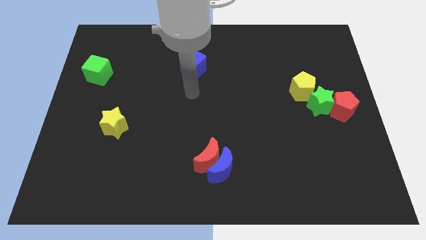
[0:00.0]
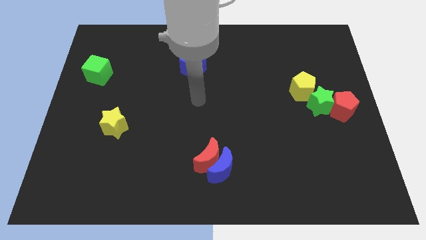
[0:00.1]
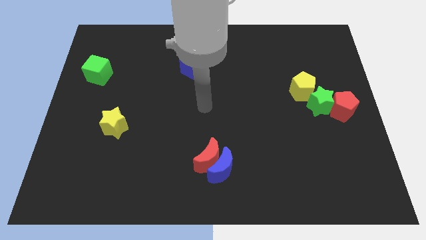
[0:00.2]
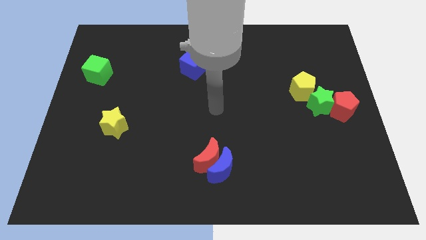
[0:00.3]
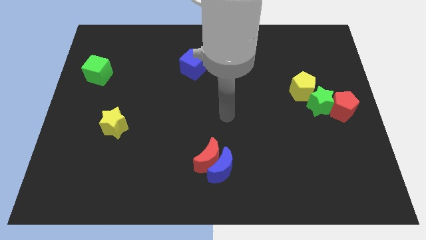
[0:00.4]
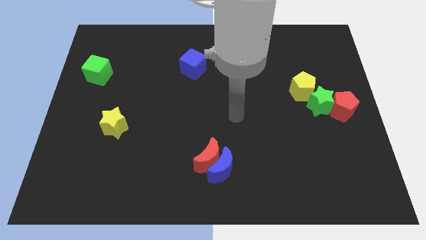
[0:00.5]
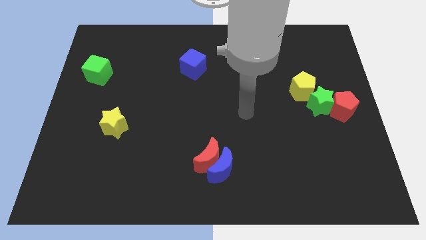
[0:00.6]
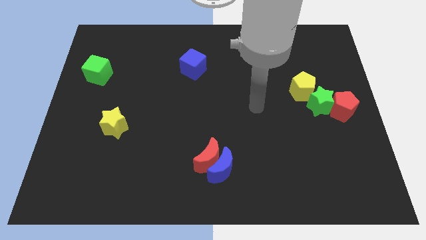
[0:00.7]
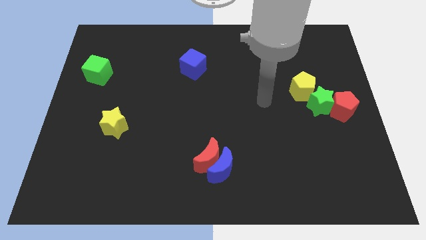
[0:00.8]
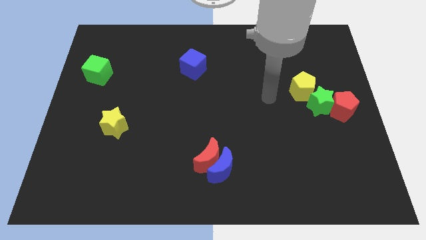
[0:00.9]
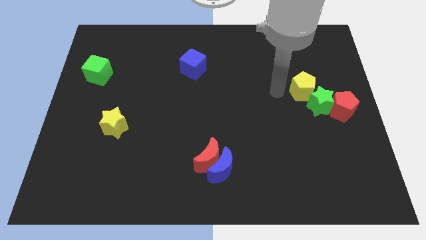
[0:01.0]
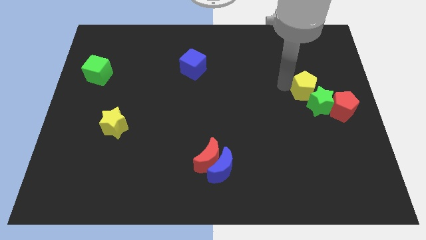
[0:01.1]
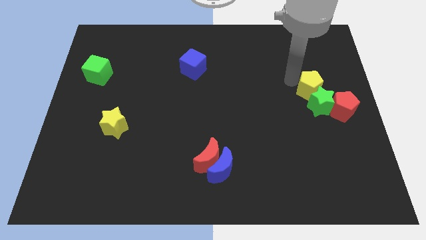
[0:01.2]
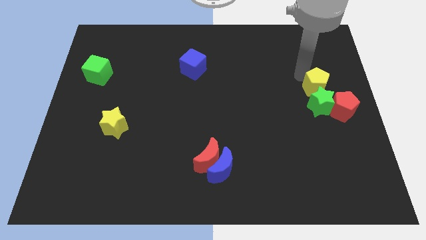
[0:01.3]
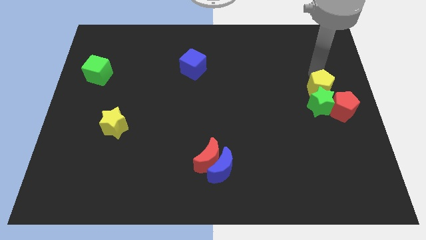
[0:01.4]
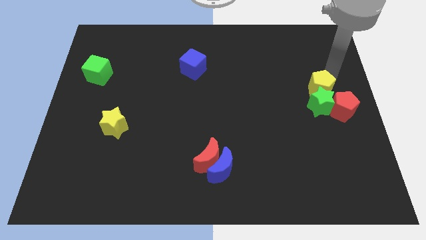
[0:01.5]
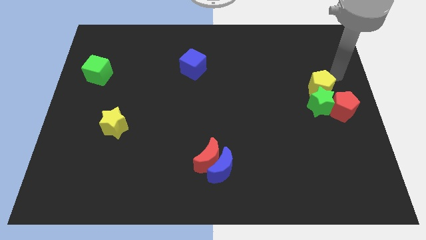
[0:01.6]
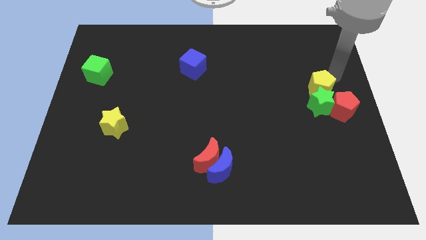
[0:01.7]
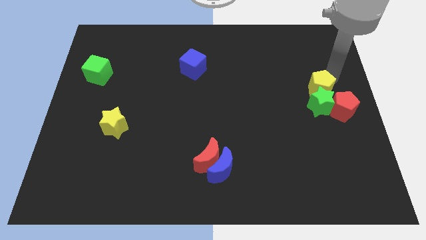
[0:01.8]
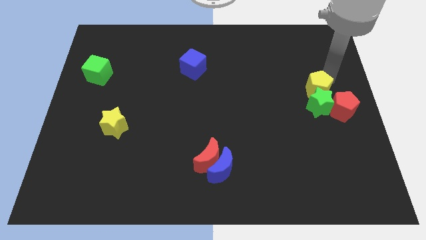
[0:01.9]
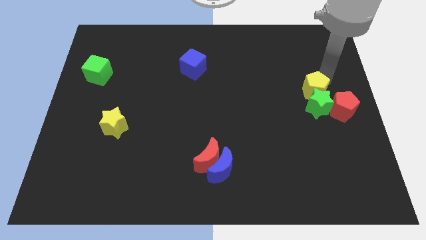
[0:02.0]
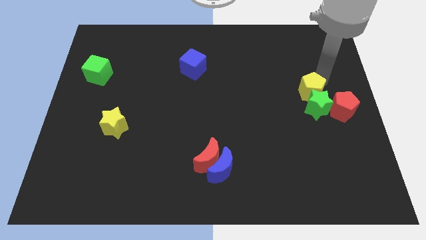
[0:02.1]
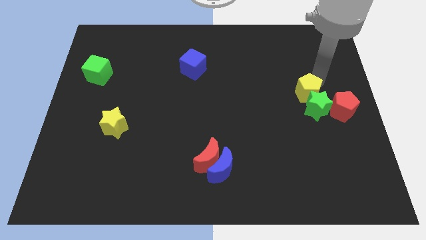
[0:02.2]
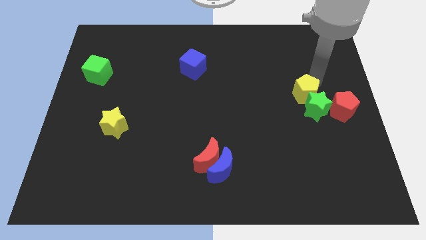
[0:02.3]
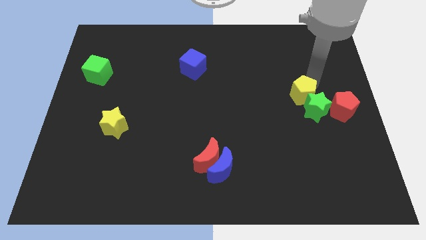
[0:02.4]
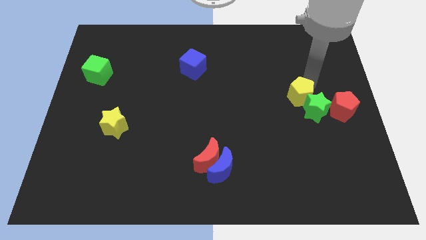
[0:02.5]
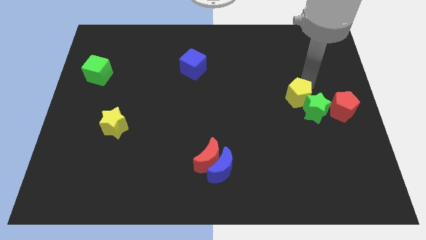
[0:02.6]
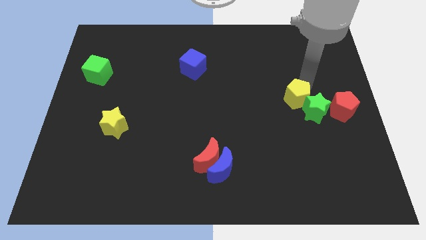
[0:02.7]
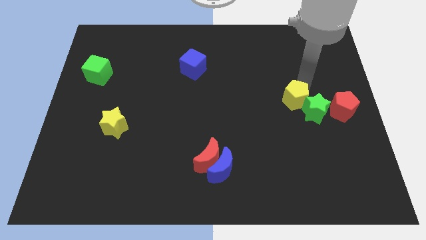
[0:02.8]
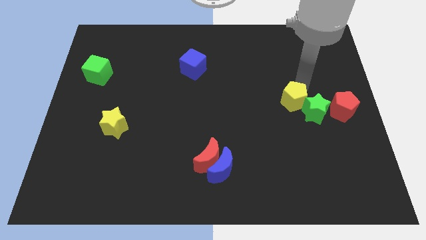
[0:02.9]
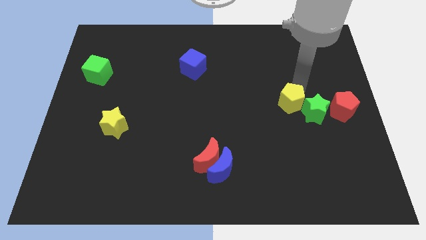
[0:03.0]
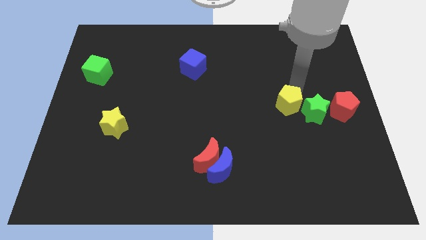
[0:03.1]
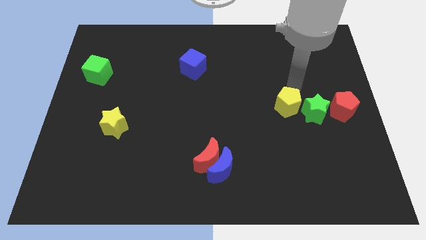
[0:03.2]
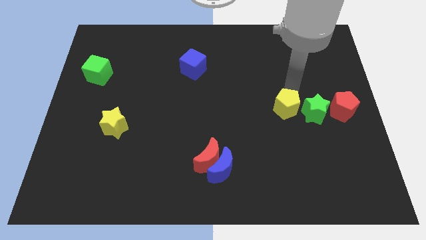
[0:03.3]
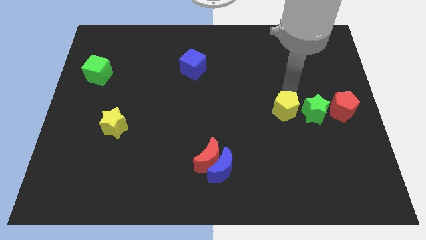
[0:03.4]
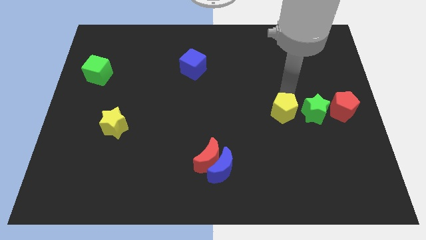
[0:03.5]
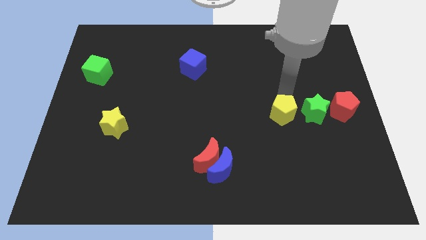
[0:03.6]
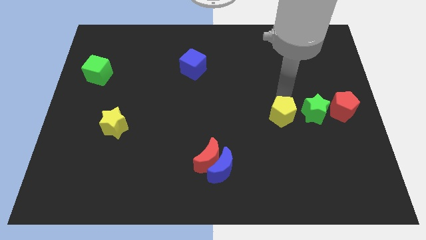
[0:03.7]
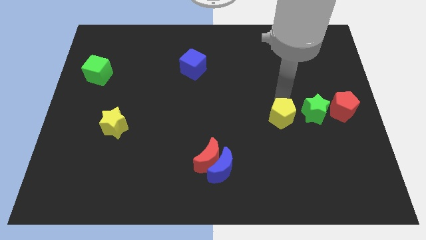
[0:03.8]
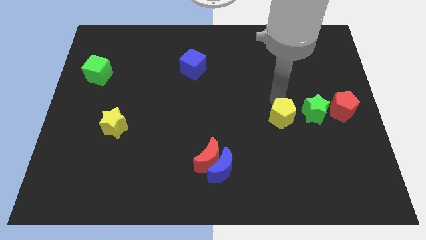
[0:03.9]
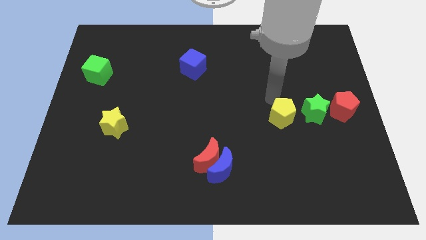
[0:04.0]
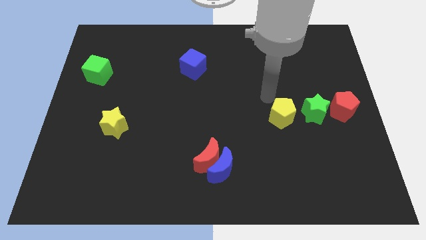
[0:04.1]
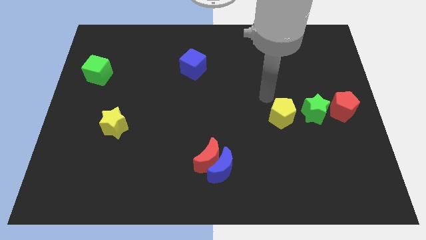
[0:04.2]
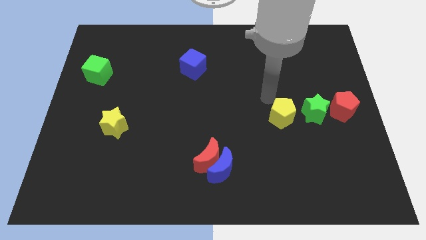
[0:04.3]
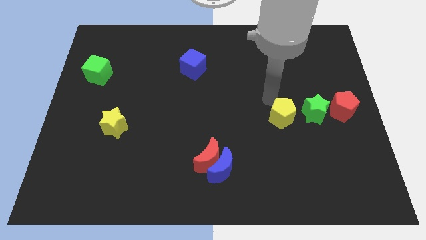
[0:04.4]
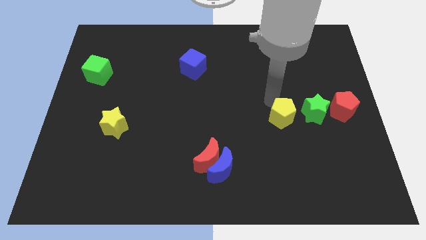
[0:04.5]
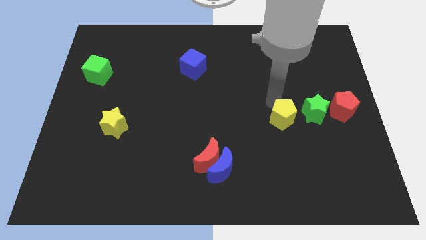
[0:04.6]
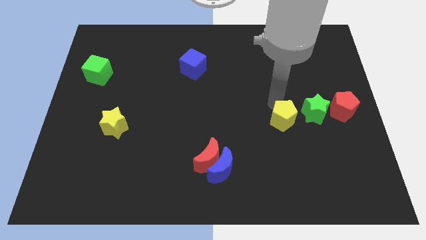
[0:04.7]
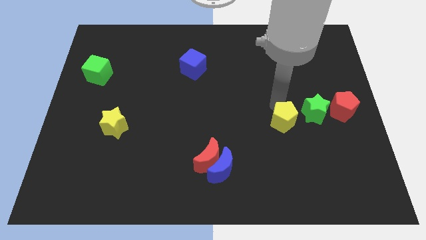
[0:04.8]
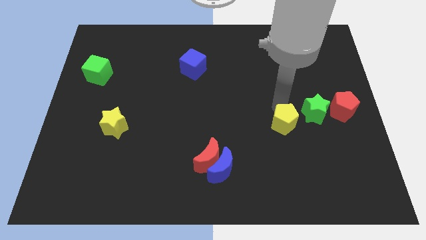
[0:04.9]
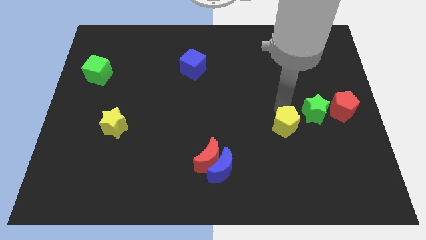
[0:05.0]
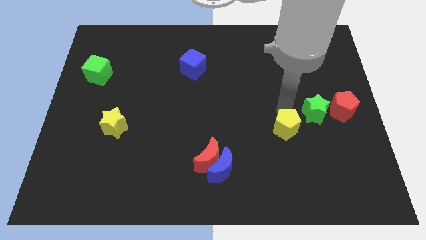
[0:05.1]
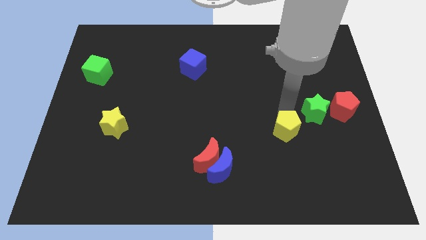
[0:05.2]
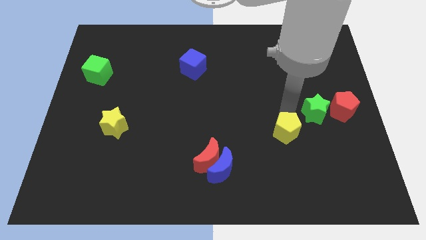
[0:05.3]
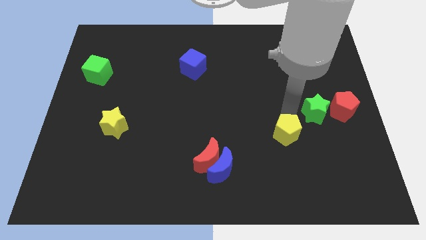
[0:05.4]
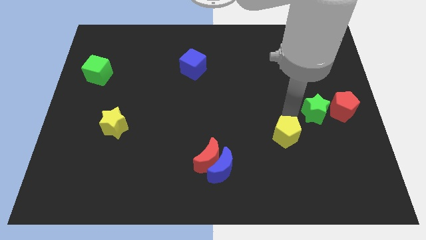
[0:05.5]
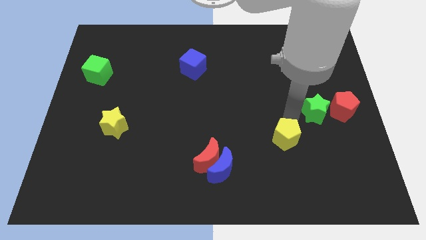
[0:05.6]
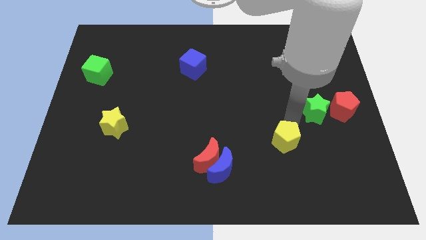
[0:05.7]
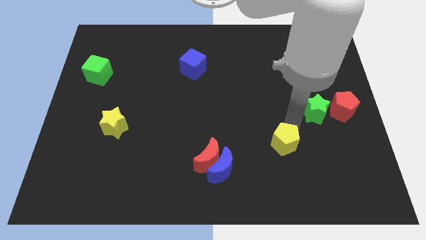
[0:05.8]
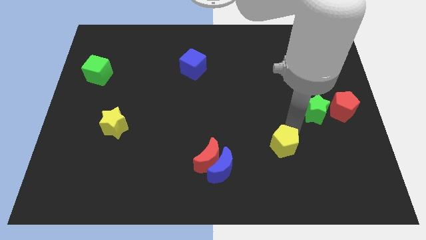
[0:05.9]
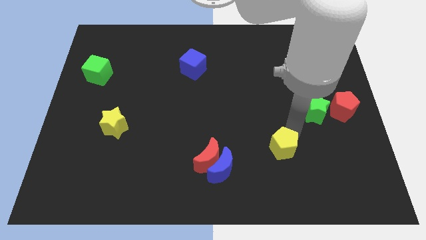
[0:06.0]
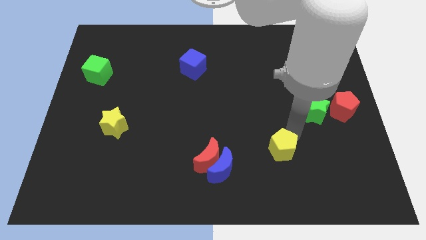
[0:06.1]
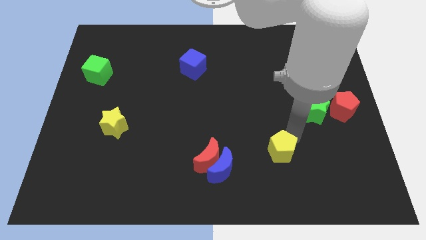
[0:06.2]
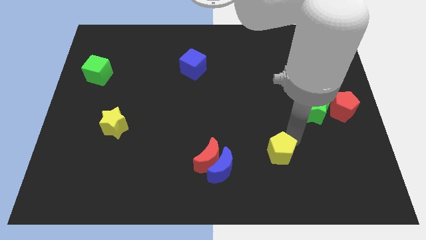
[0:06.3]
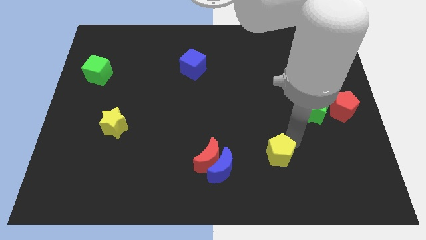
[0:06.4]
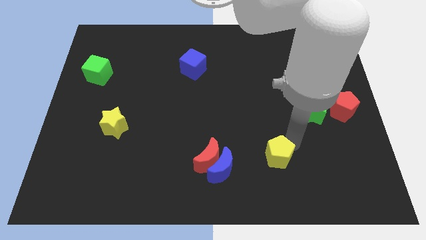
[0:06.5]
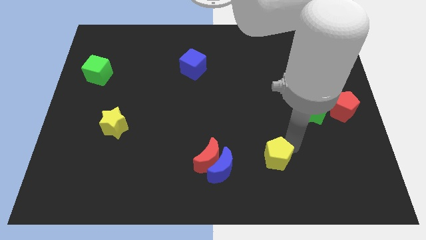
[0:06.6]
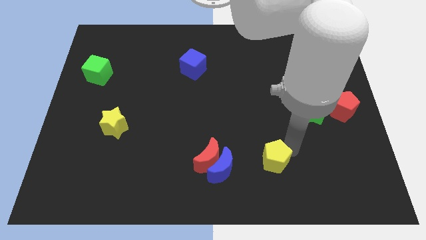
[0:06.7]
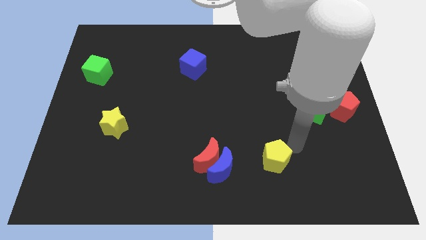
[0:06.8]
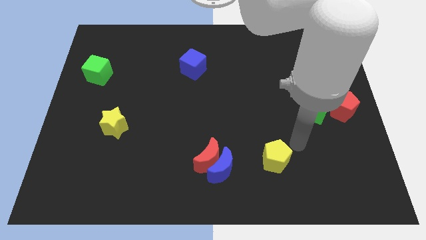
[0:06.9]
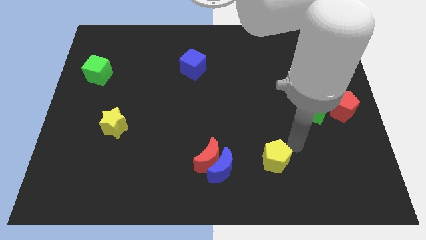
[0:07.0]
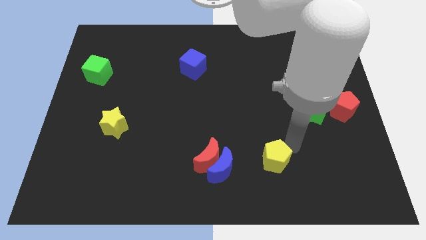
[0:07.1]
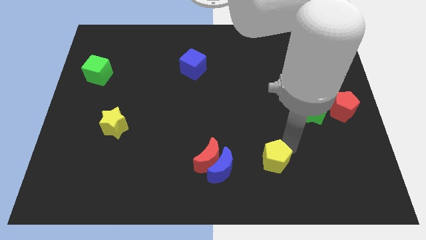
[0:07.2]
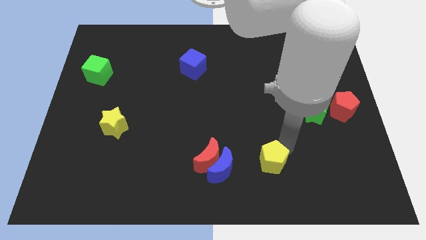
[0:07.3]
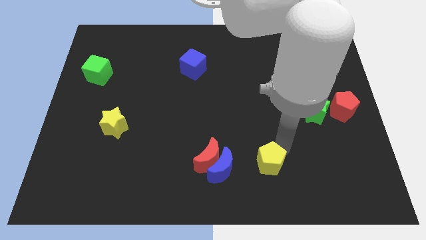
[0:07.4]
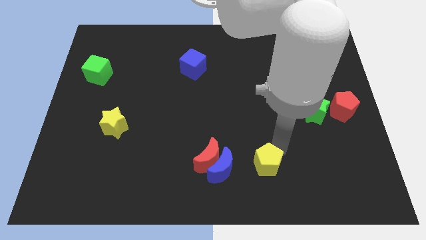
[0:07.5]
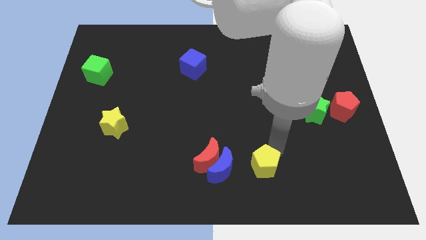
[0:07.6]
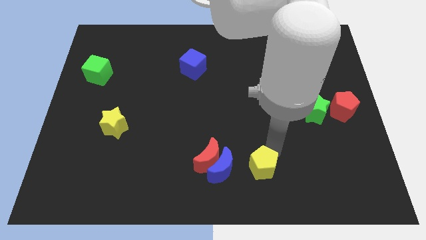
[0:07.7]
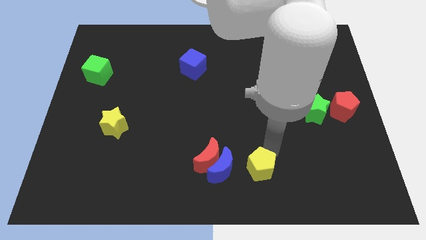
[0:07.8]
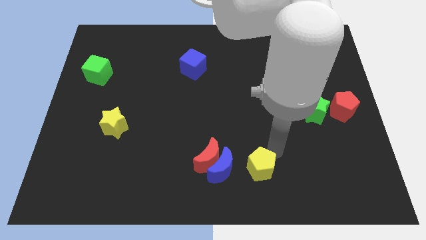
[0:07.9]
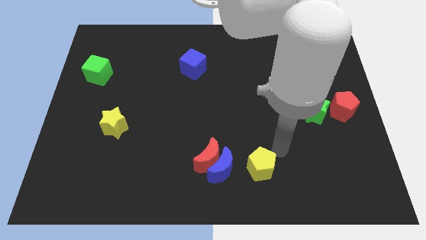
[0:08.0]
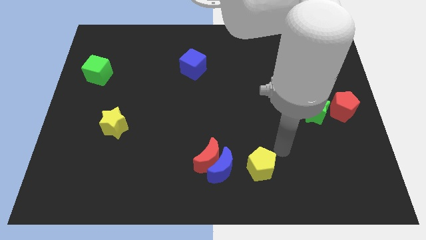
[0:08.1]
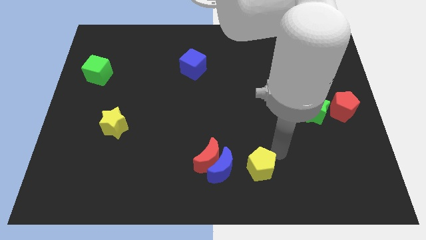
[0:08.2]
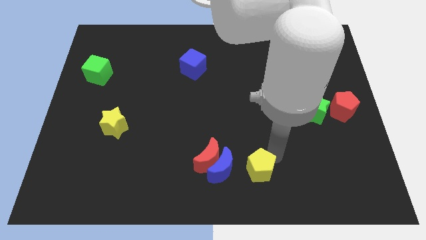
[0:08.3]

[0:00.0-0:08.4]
push the yellow pentagon to the bottom
